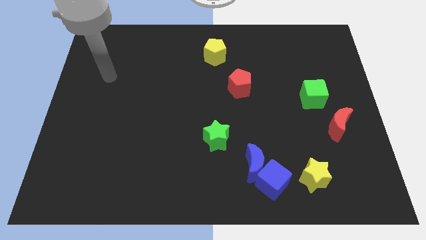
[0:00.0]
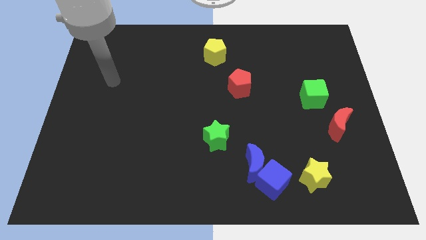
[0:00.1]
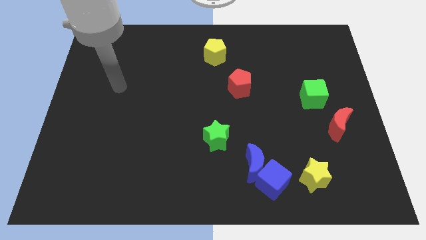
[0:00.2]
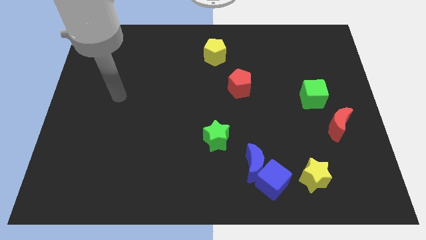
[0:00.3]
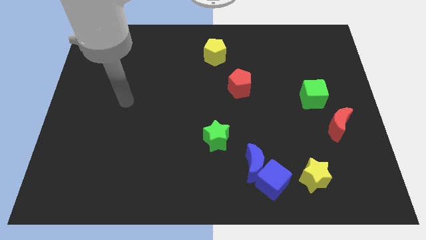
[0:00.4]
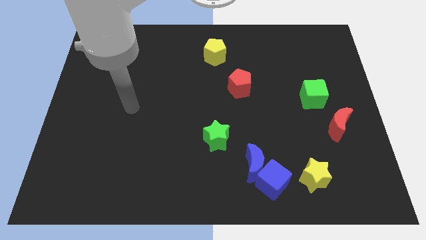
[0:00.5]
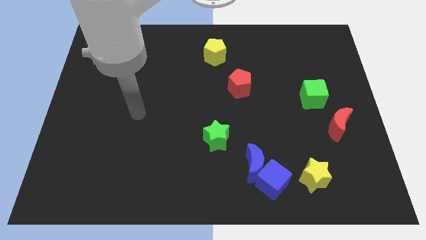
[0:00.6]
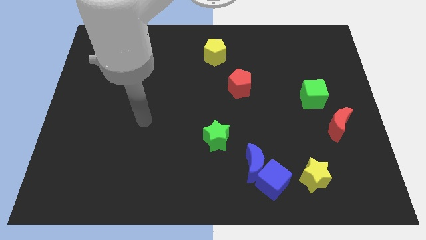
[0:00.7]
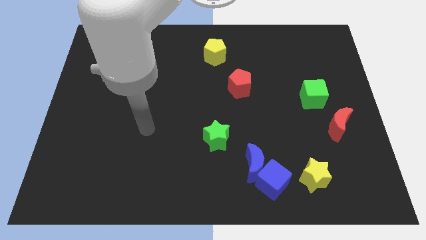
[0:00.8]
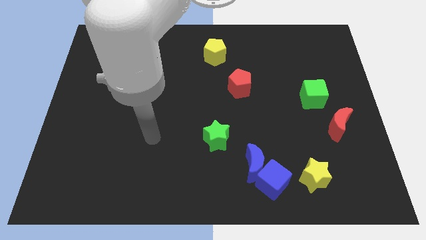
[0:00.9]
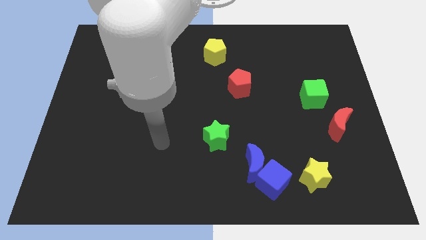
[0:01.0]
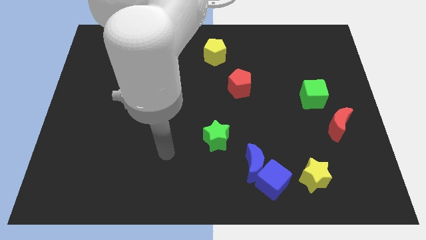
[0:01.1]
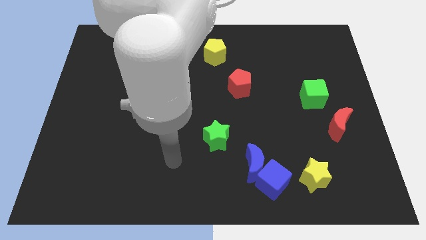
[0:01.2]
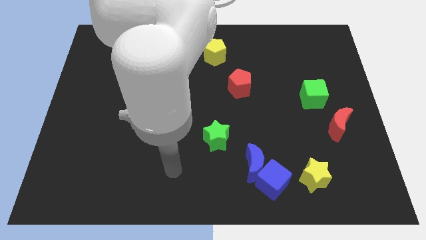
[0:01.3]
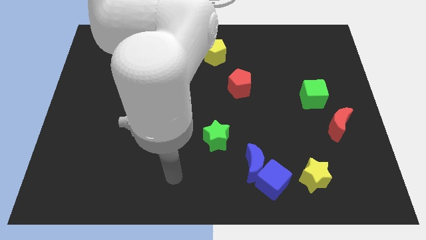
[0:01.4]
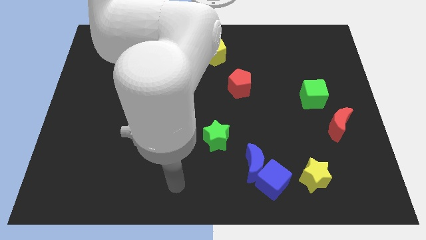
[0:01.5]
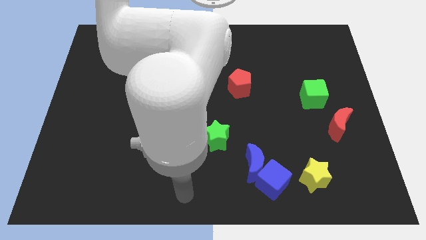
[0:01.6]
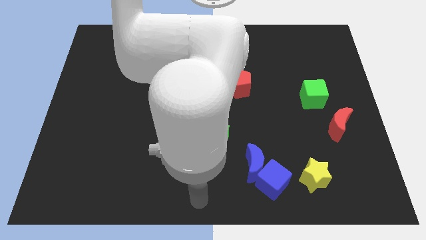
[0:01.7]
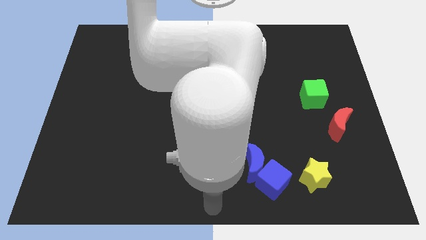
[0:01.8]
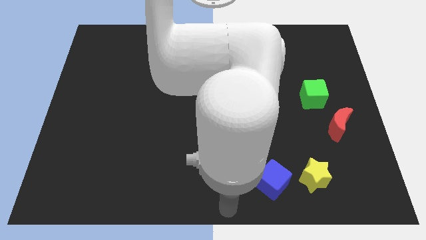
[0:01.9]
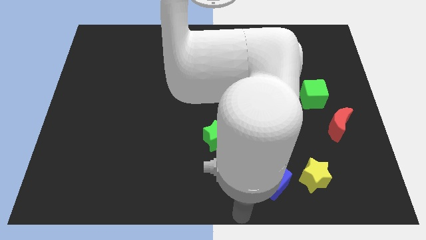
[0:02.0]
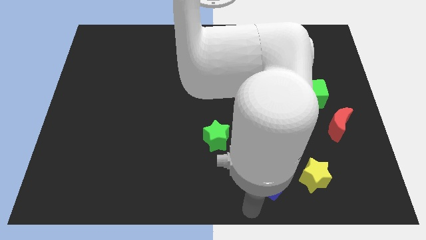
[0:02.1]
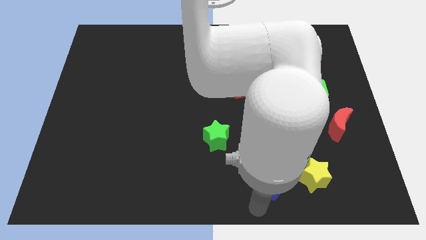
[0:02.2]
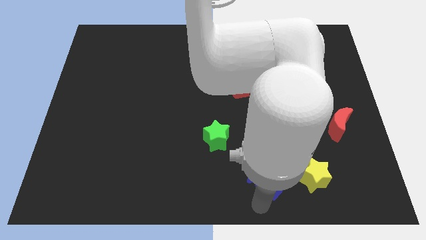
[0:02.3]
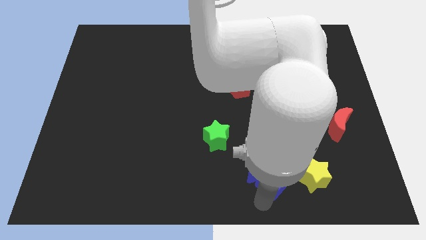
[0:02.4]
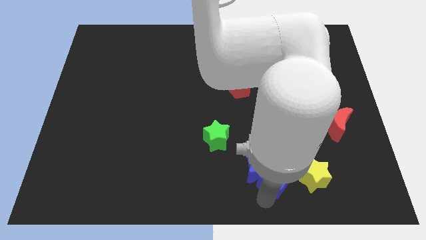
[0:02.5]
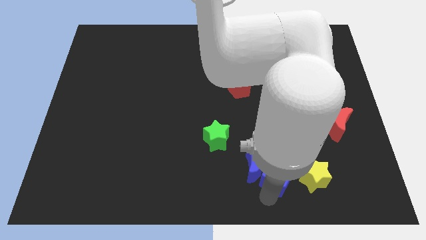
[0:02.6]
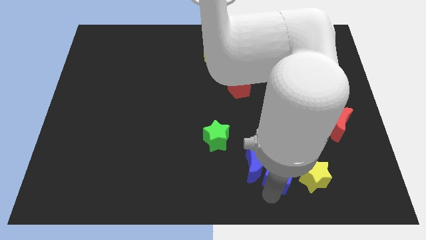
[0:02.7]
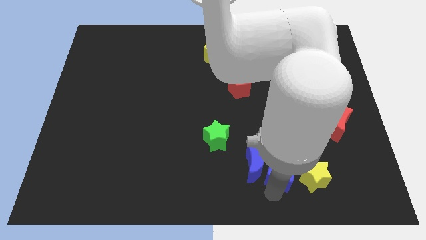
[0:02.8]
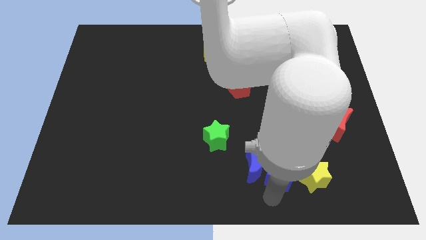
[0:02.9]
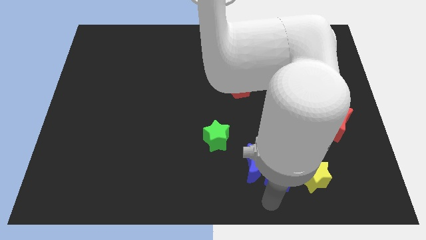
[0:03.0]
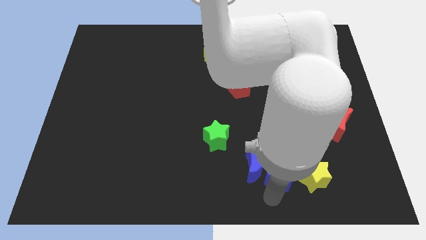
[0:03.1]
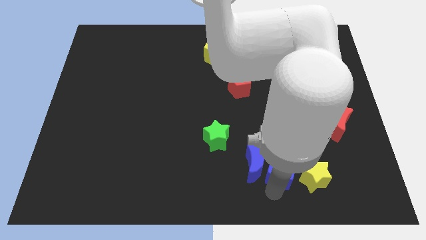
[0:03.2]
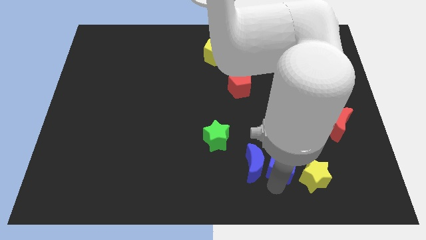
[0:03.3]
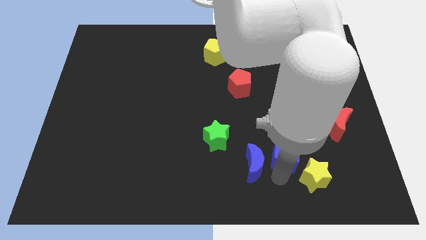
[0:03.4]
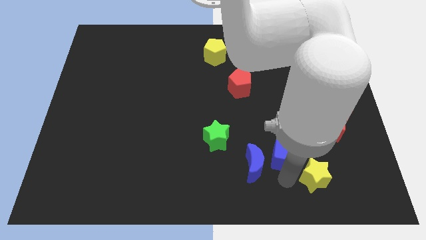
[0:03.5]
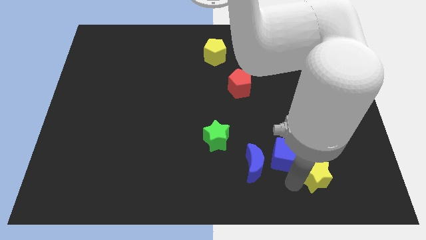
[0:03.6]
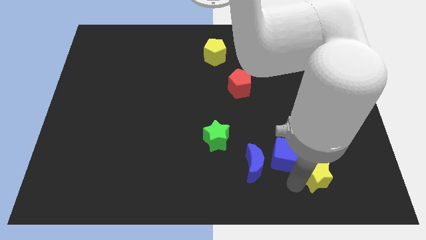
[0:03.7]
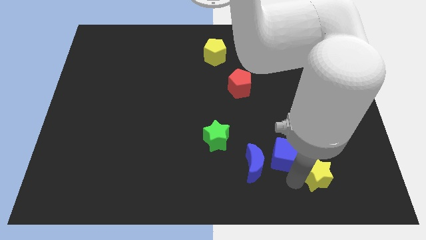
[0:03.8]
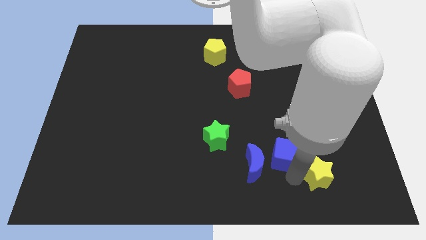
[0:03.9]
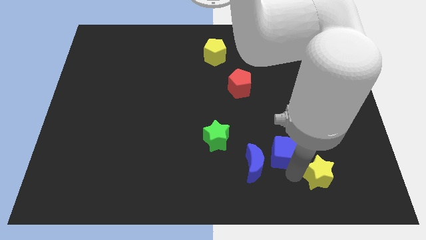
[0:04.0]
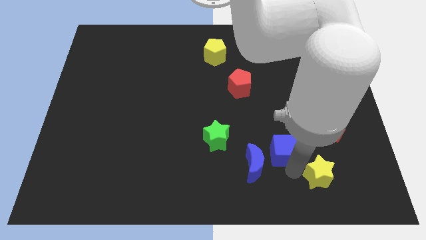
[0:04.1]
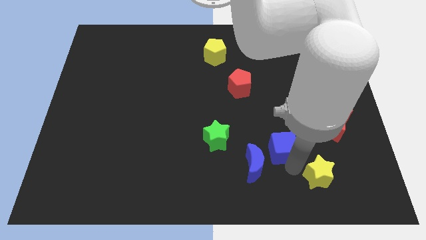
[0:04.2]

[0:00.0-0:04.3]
slightly slide the blue cube upwards

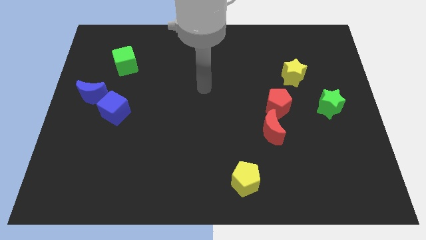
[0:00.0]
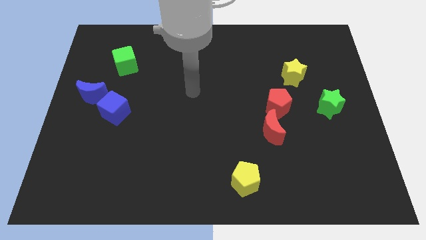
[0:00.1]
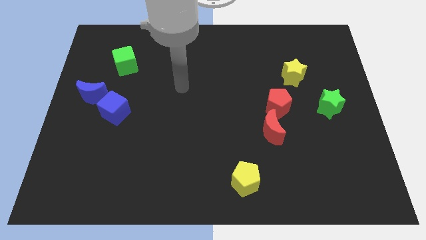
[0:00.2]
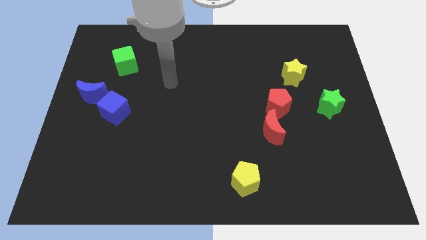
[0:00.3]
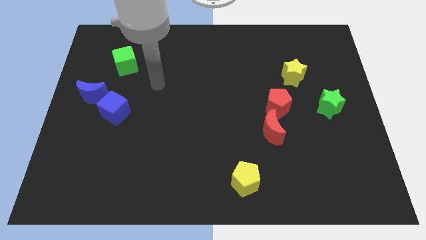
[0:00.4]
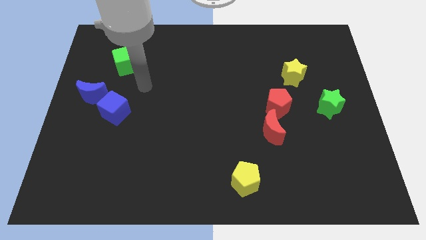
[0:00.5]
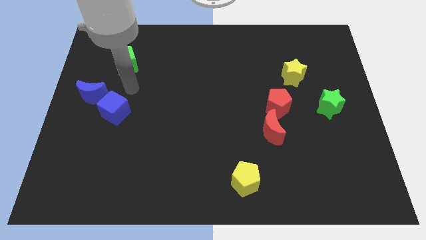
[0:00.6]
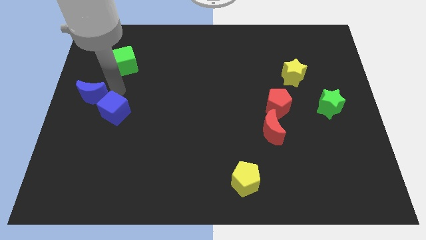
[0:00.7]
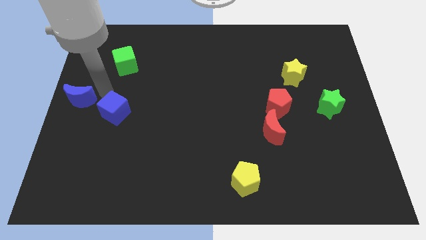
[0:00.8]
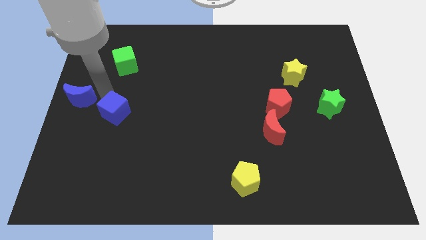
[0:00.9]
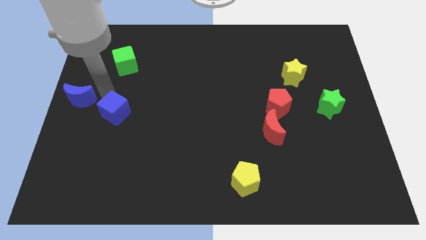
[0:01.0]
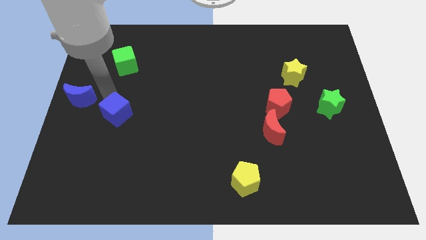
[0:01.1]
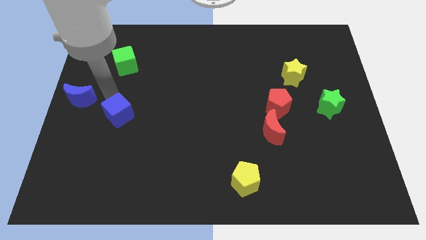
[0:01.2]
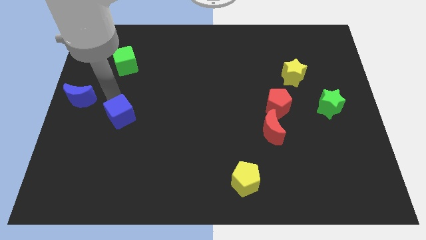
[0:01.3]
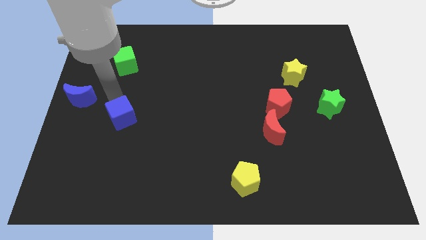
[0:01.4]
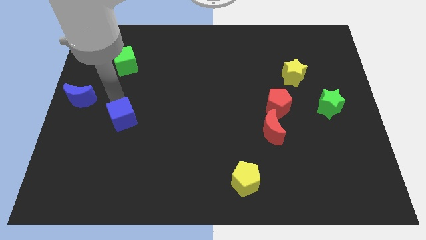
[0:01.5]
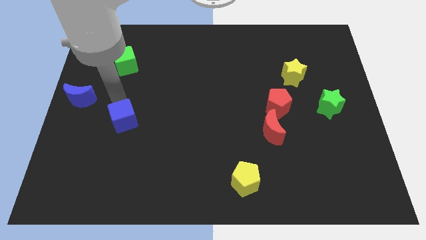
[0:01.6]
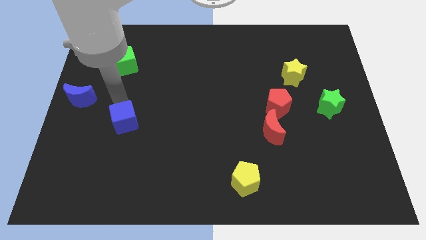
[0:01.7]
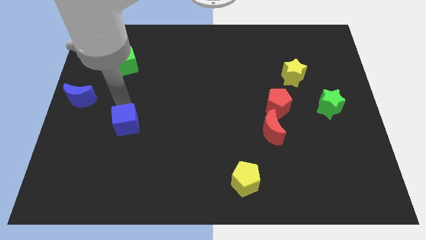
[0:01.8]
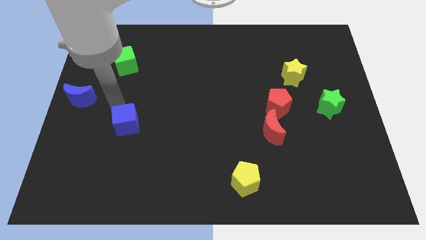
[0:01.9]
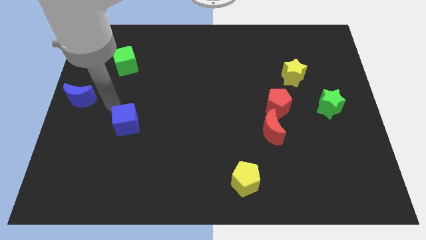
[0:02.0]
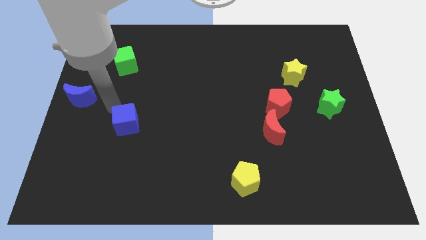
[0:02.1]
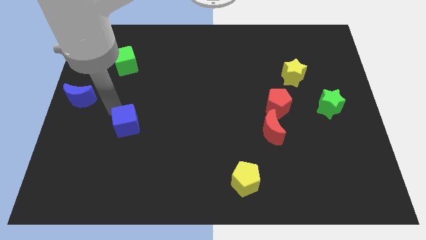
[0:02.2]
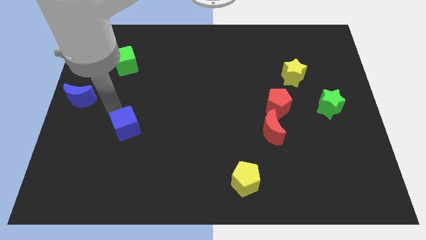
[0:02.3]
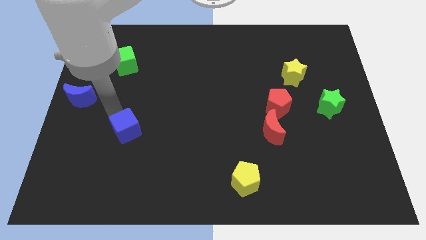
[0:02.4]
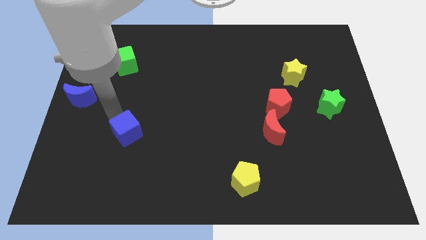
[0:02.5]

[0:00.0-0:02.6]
push the blue cube down and then to the right a bit

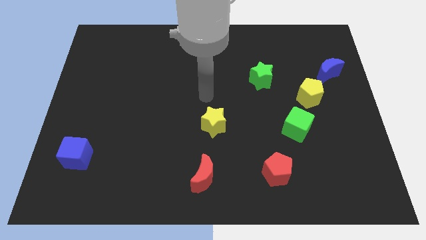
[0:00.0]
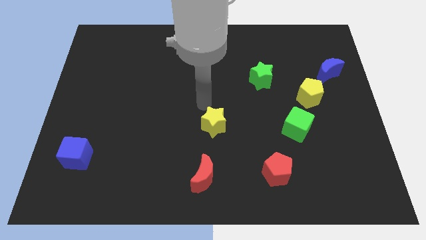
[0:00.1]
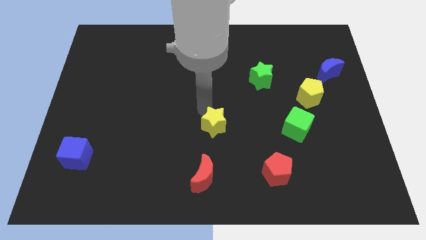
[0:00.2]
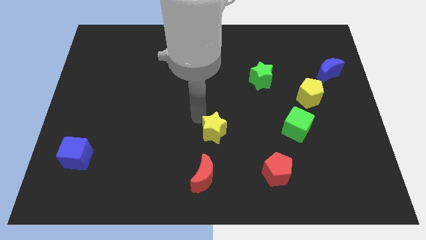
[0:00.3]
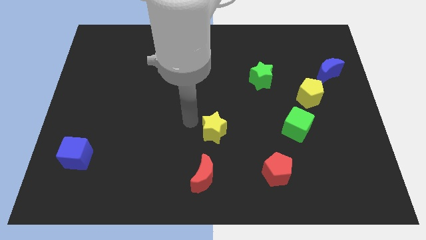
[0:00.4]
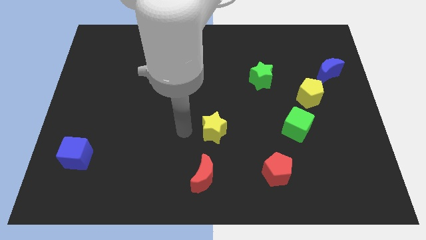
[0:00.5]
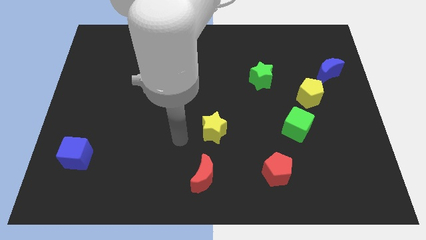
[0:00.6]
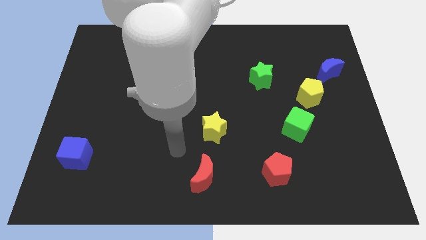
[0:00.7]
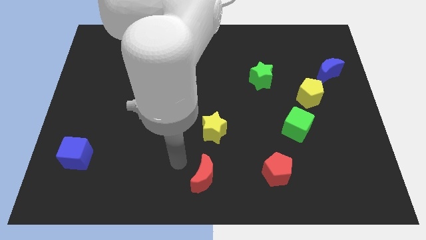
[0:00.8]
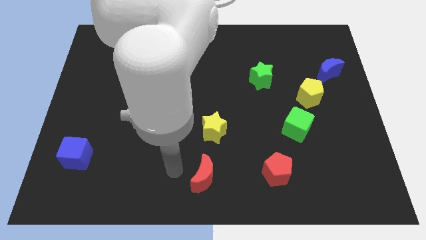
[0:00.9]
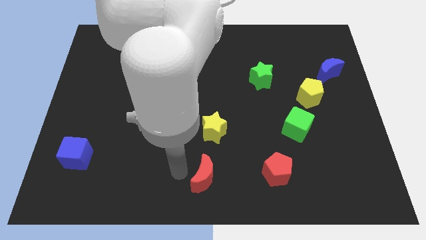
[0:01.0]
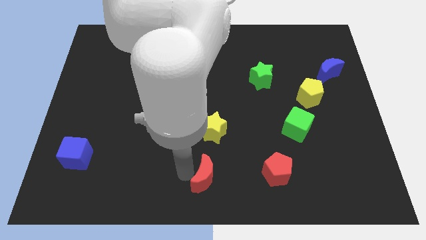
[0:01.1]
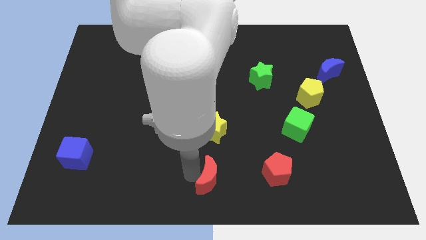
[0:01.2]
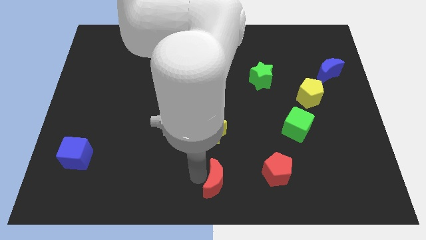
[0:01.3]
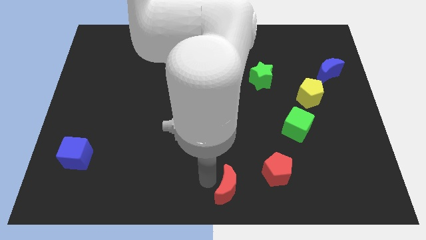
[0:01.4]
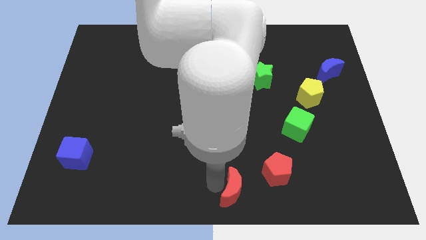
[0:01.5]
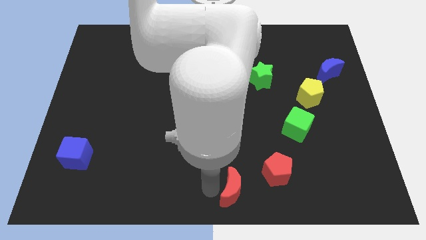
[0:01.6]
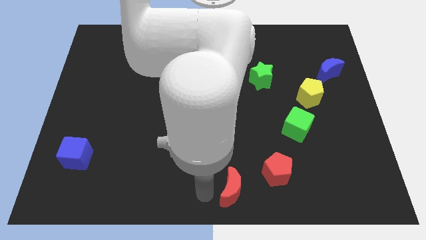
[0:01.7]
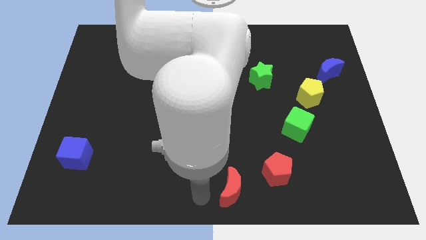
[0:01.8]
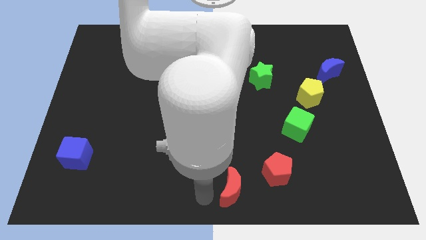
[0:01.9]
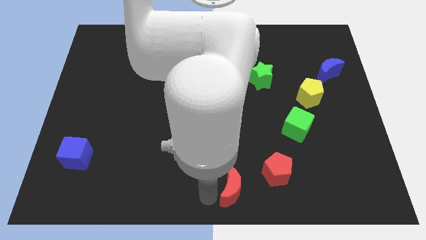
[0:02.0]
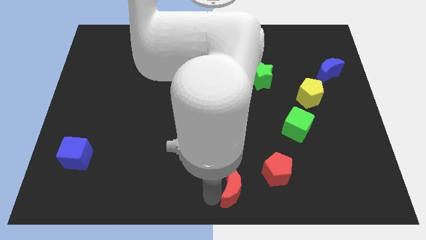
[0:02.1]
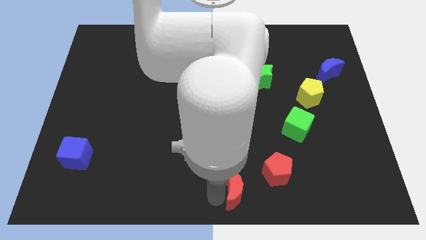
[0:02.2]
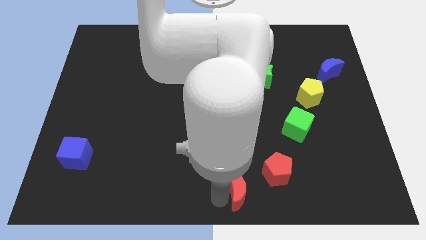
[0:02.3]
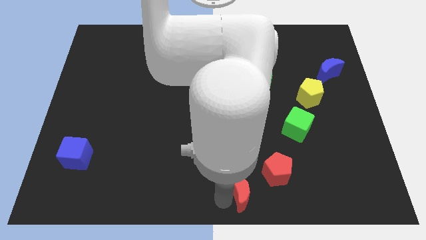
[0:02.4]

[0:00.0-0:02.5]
move the red moon slightly right
